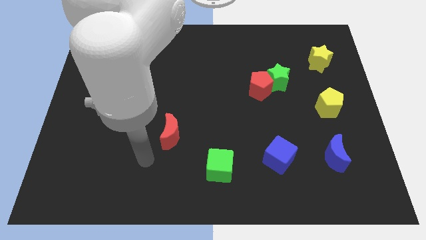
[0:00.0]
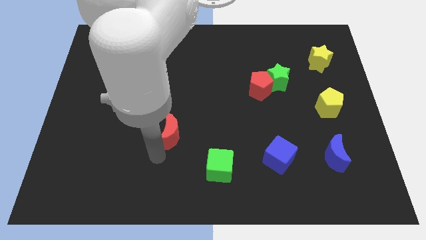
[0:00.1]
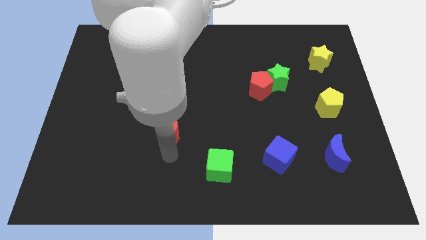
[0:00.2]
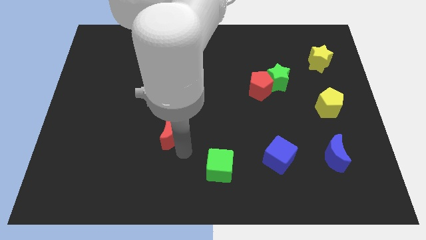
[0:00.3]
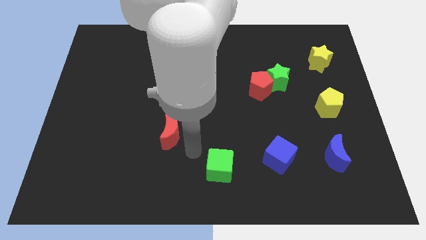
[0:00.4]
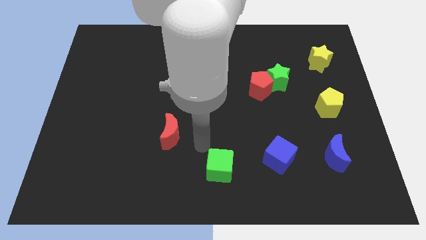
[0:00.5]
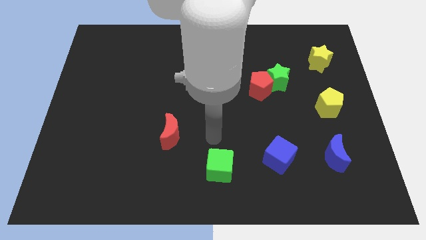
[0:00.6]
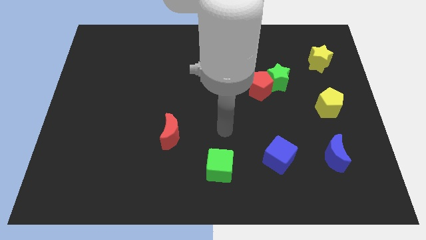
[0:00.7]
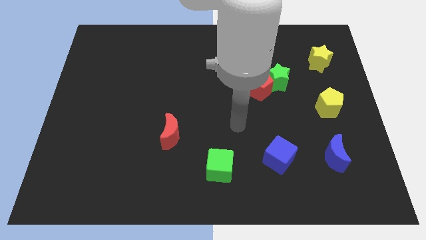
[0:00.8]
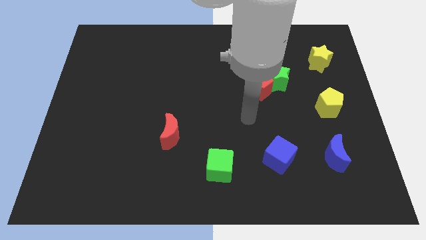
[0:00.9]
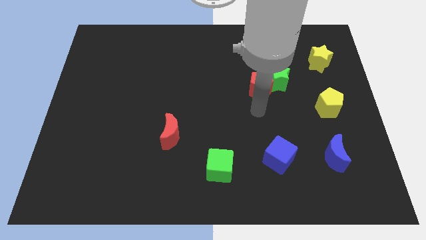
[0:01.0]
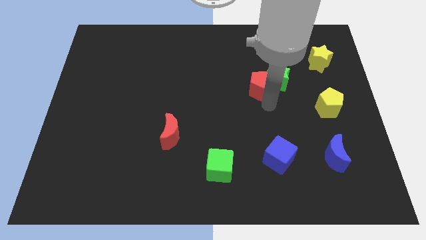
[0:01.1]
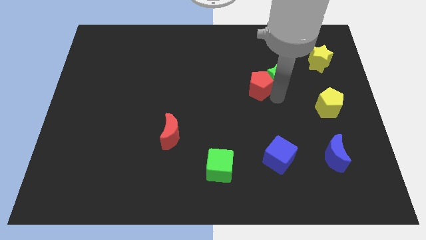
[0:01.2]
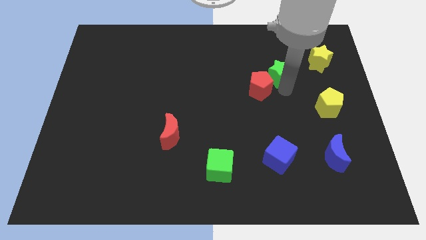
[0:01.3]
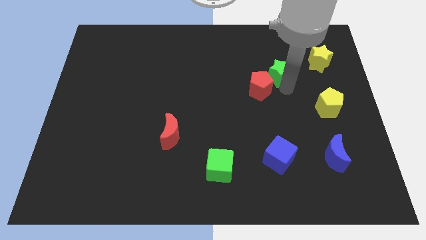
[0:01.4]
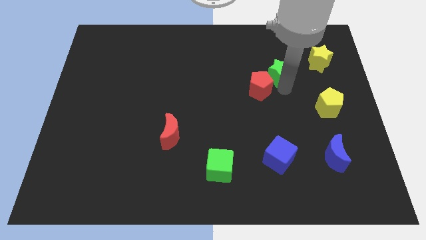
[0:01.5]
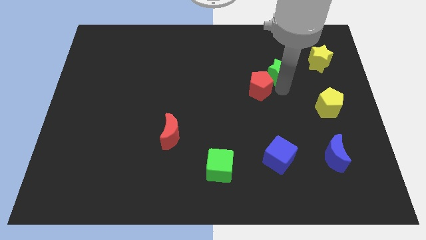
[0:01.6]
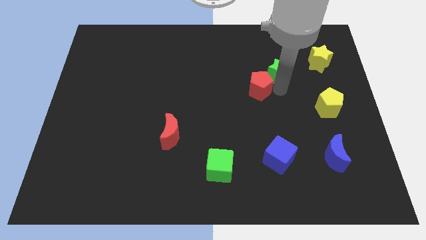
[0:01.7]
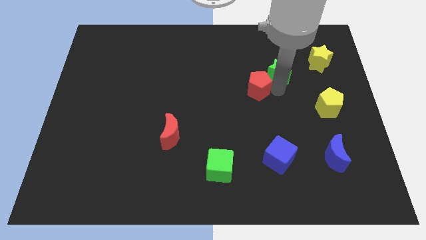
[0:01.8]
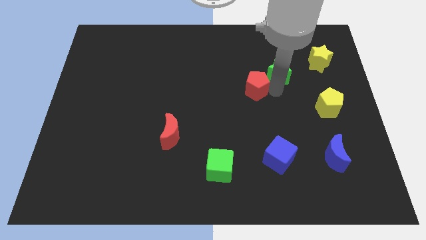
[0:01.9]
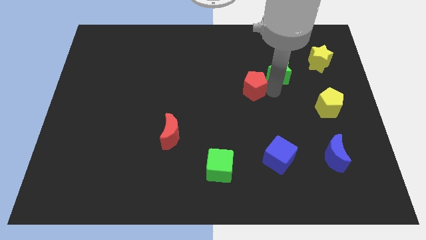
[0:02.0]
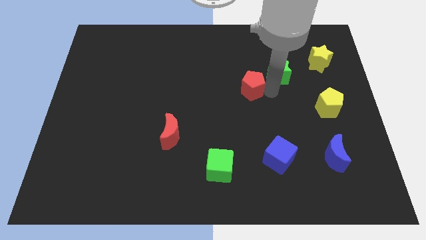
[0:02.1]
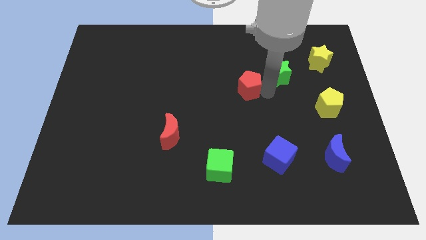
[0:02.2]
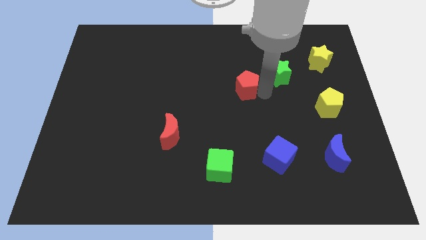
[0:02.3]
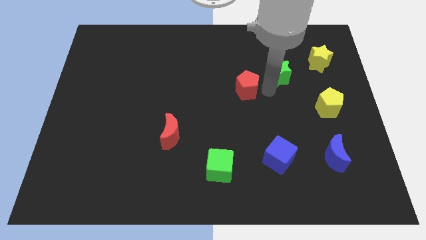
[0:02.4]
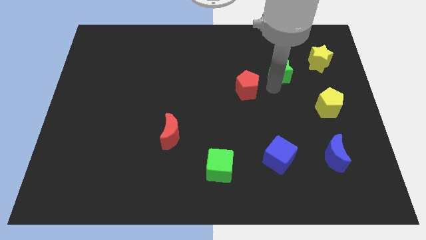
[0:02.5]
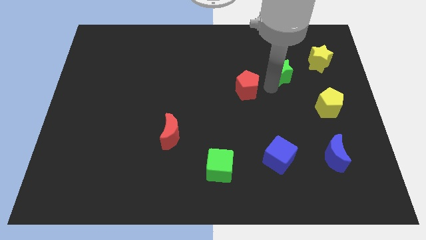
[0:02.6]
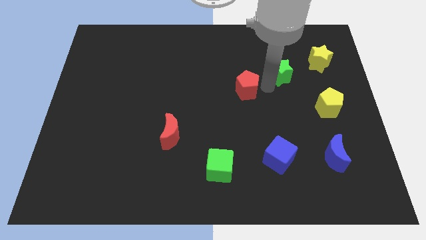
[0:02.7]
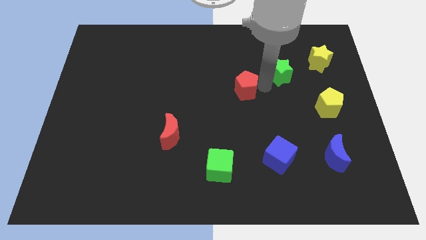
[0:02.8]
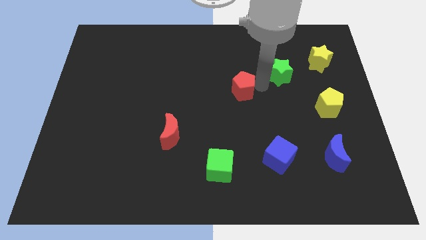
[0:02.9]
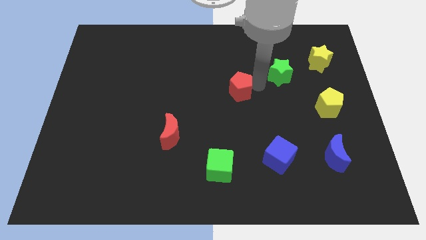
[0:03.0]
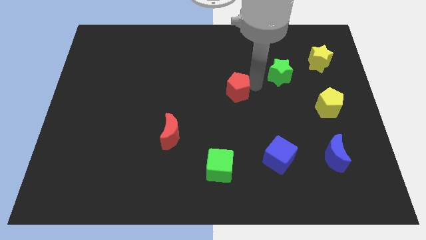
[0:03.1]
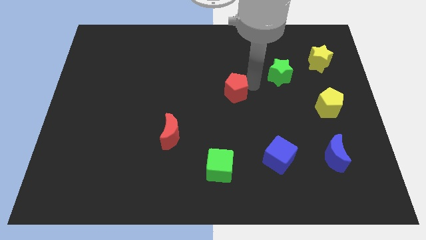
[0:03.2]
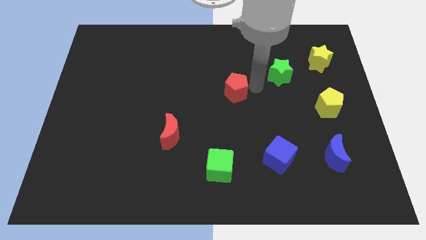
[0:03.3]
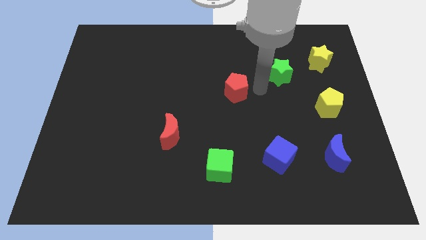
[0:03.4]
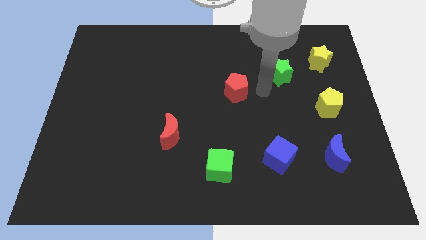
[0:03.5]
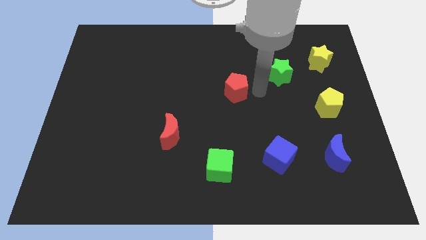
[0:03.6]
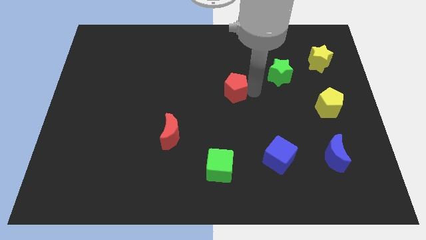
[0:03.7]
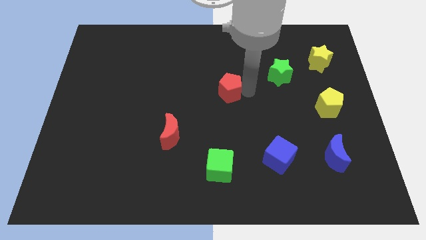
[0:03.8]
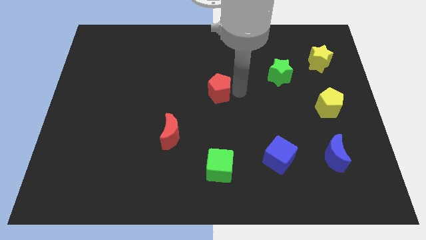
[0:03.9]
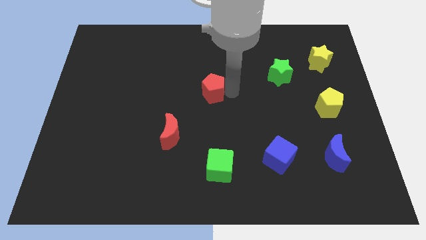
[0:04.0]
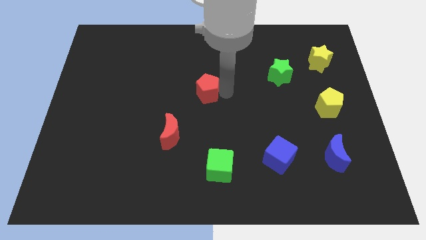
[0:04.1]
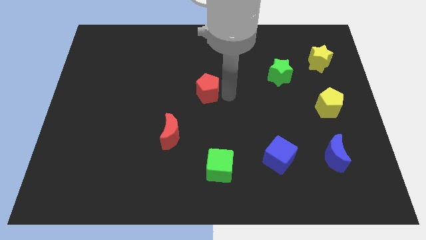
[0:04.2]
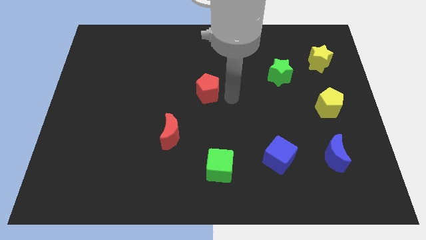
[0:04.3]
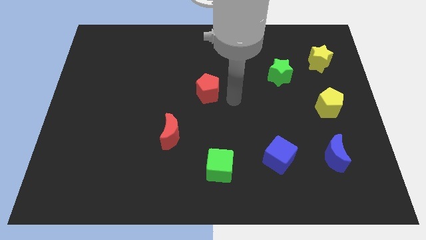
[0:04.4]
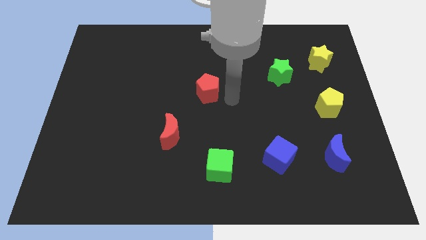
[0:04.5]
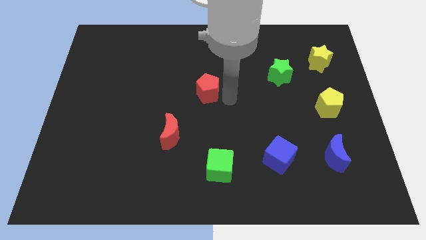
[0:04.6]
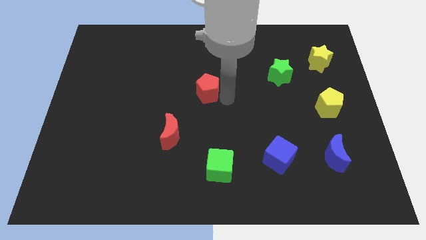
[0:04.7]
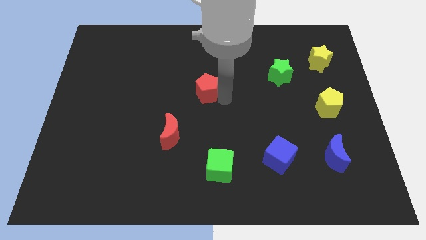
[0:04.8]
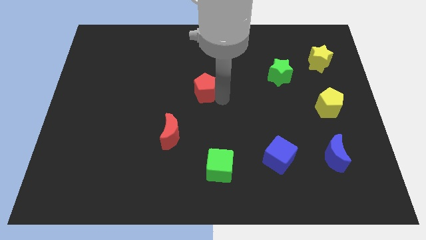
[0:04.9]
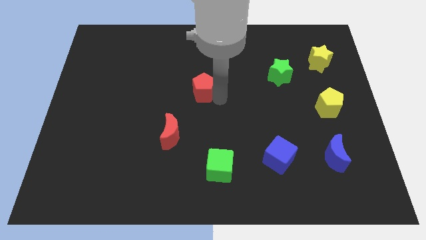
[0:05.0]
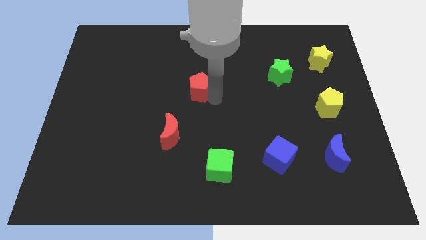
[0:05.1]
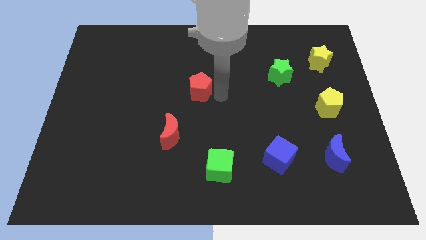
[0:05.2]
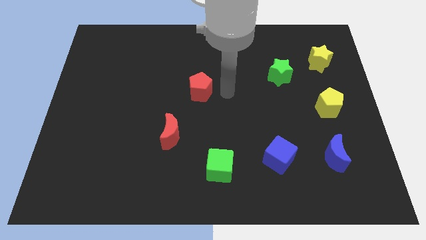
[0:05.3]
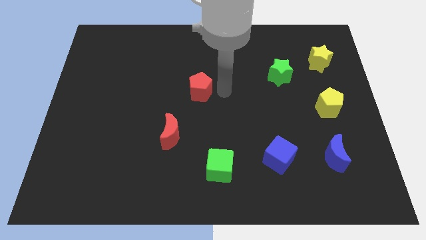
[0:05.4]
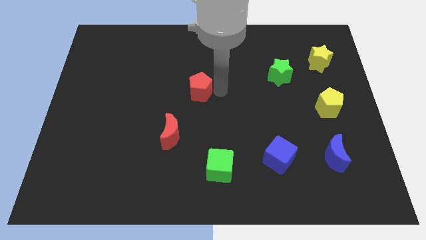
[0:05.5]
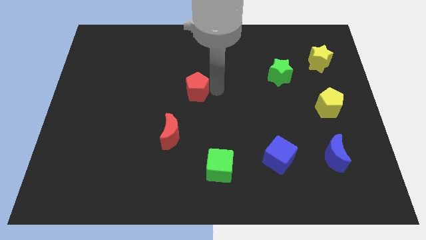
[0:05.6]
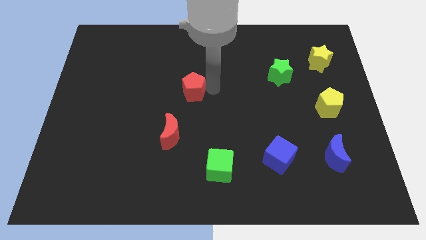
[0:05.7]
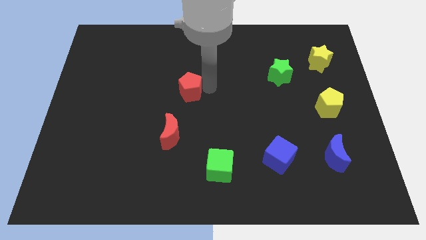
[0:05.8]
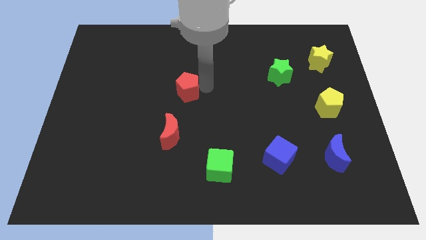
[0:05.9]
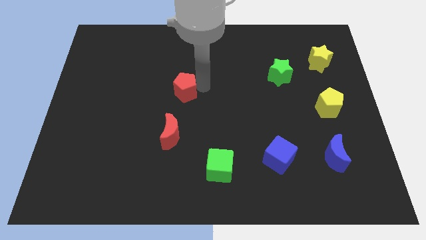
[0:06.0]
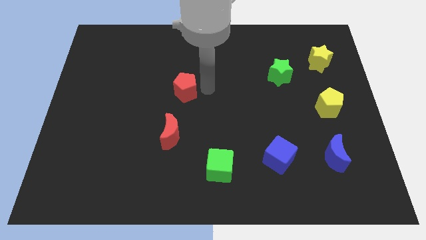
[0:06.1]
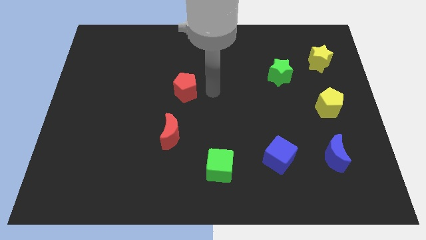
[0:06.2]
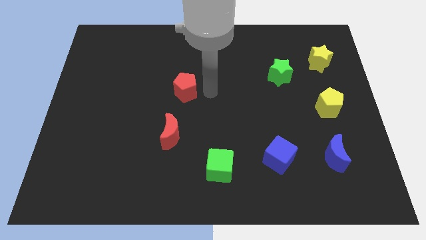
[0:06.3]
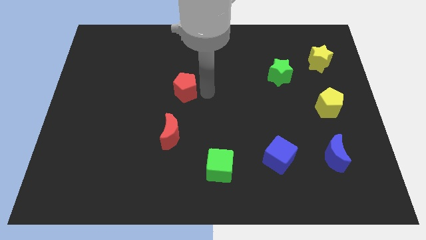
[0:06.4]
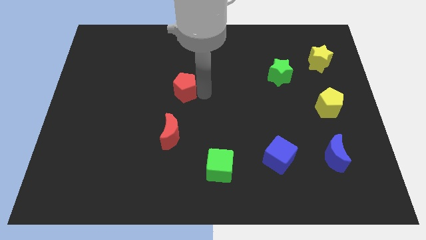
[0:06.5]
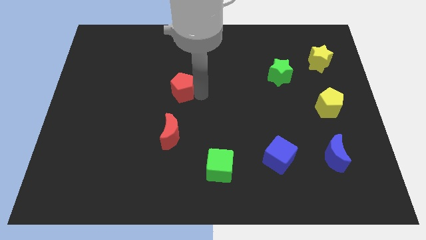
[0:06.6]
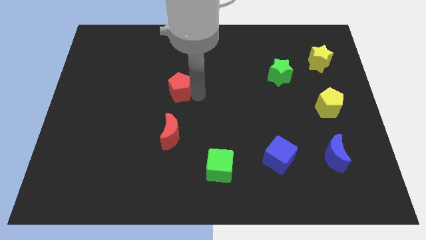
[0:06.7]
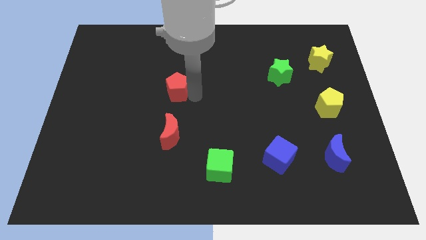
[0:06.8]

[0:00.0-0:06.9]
slide the red pentagon to the left

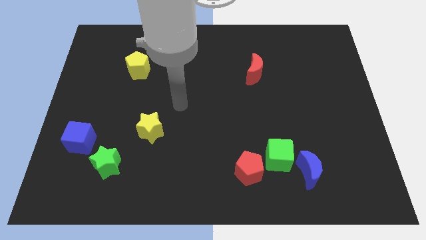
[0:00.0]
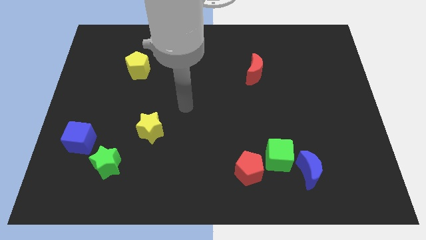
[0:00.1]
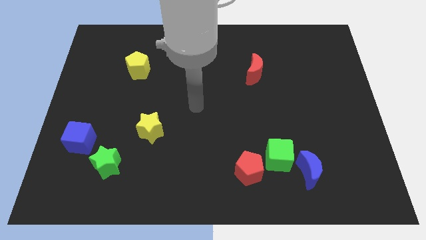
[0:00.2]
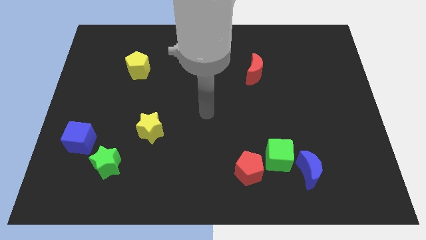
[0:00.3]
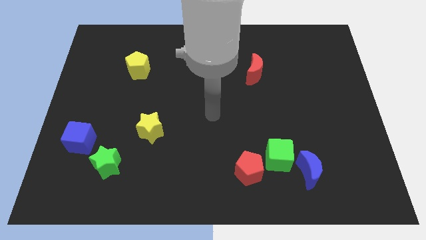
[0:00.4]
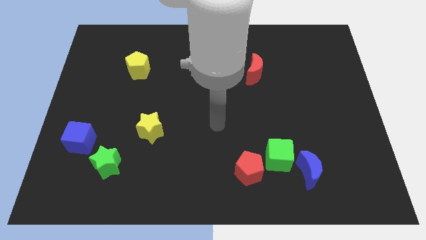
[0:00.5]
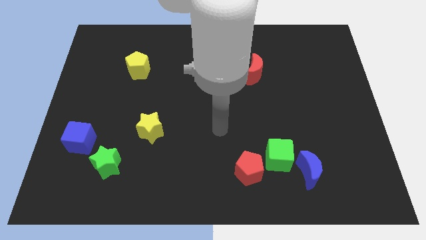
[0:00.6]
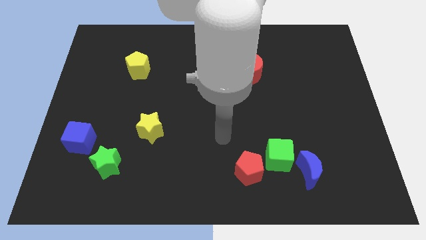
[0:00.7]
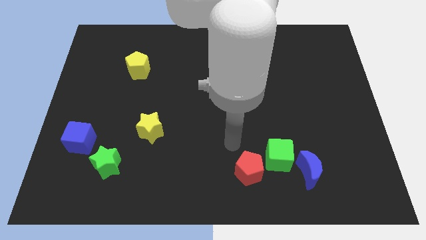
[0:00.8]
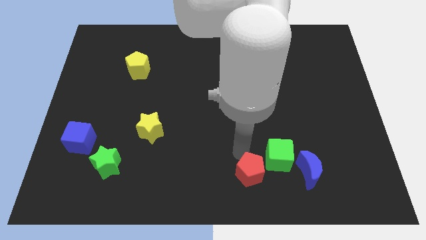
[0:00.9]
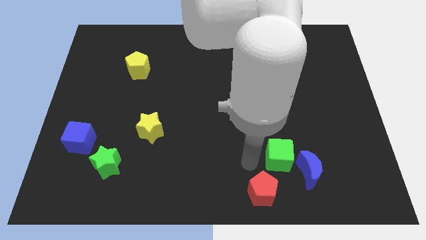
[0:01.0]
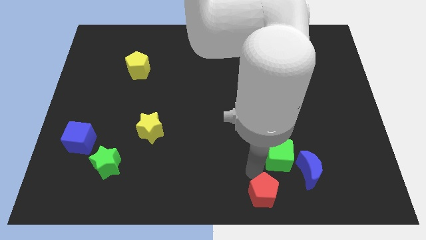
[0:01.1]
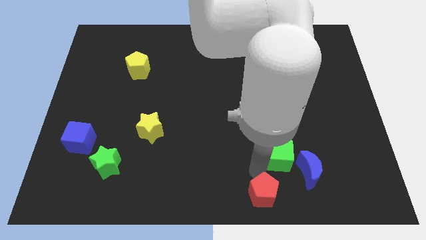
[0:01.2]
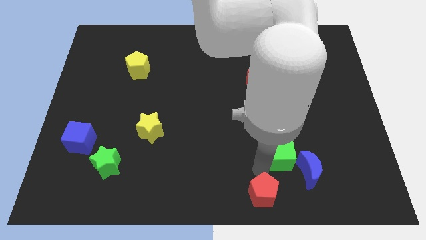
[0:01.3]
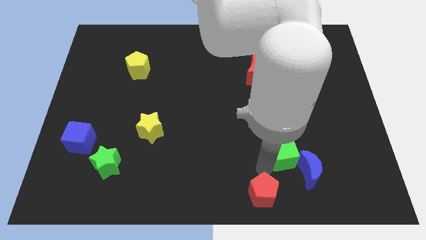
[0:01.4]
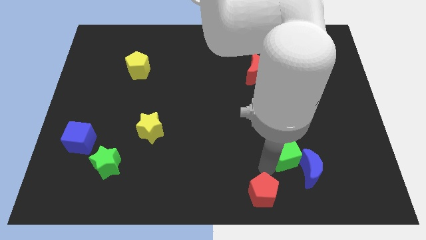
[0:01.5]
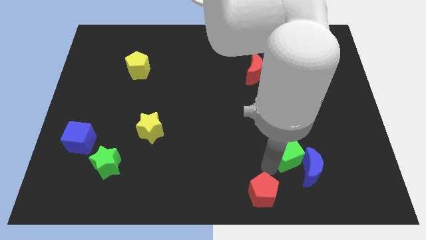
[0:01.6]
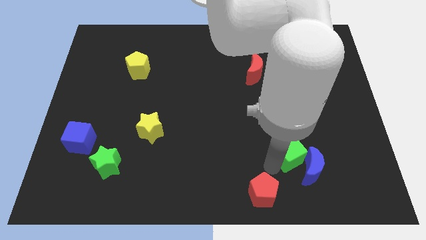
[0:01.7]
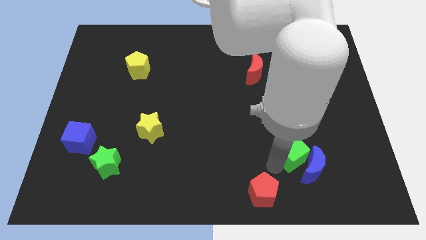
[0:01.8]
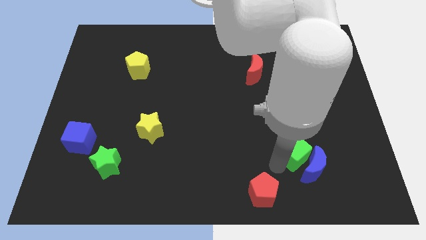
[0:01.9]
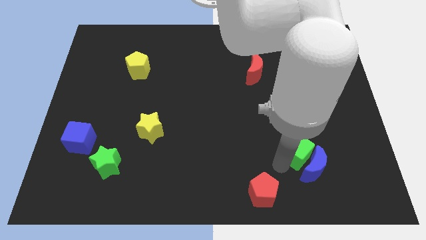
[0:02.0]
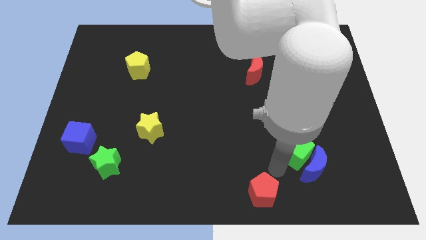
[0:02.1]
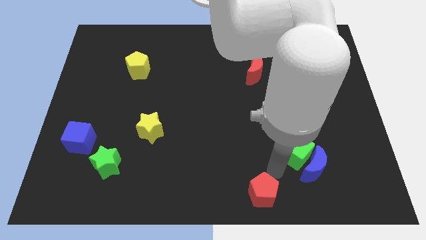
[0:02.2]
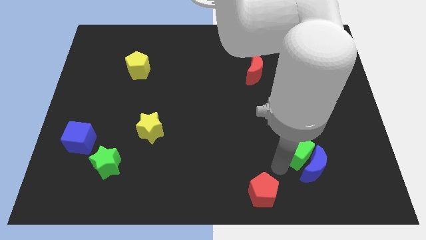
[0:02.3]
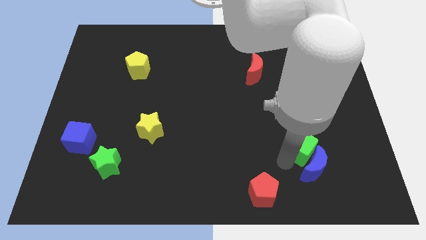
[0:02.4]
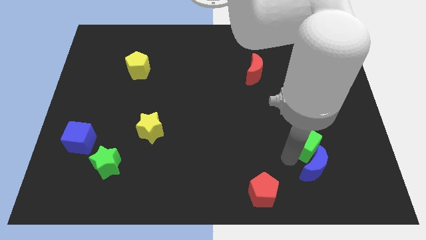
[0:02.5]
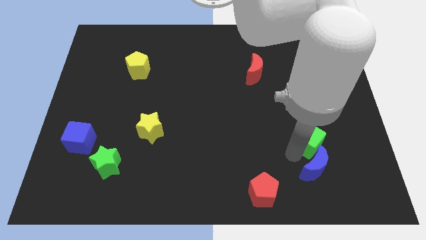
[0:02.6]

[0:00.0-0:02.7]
move the green cube up and to the right diagonally a bit
